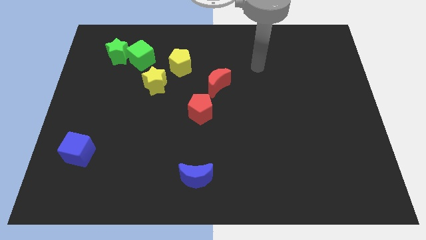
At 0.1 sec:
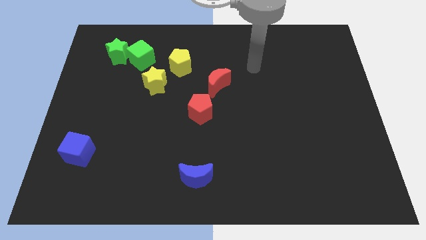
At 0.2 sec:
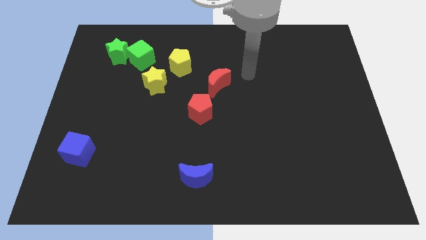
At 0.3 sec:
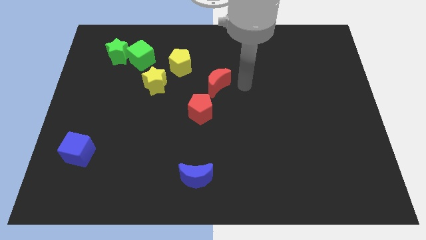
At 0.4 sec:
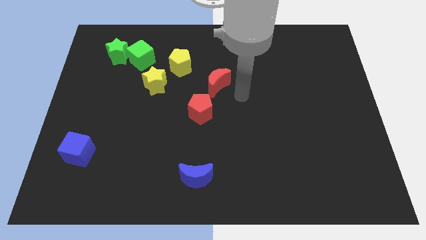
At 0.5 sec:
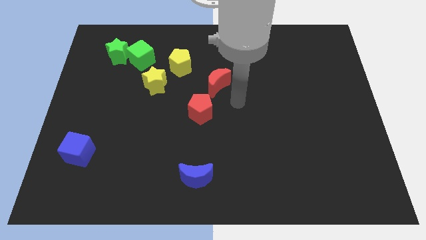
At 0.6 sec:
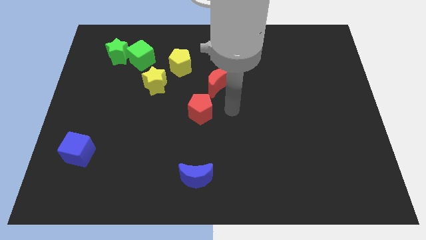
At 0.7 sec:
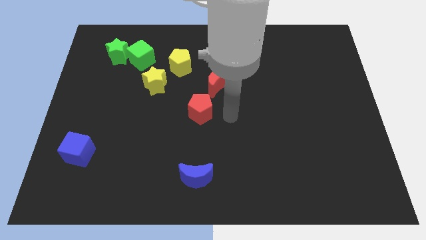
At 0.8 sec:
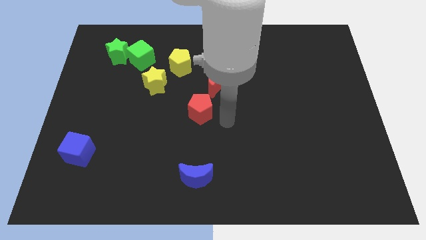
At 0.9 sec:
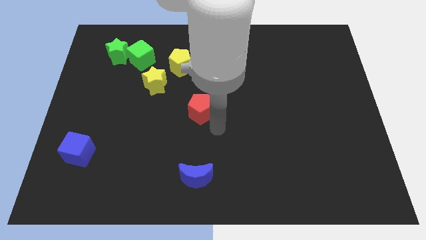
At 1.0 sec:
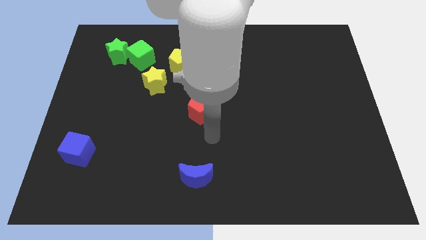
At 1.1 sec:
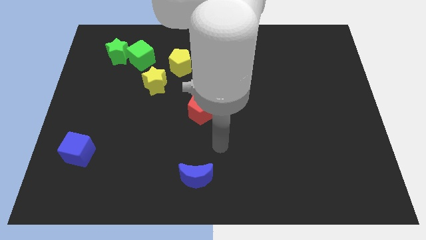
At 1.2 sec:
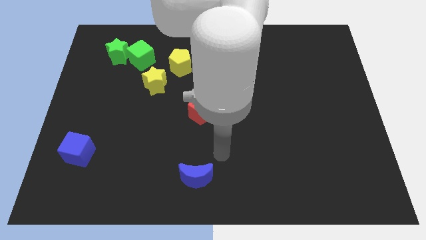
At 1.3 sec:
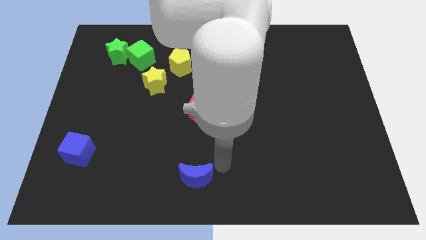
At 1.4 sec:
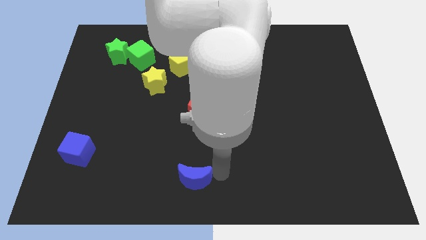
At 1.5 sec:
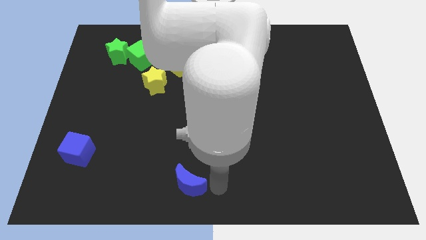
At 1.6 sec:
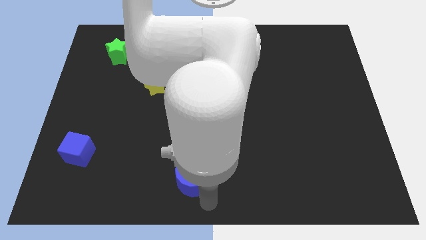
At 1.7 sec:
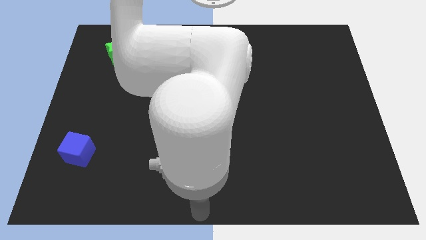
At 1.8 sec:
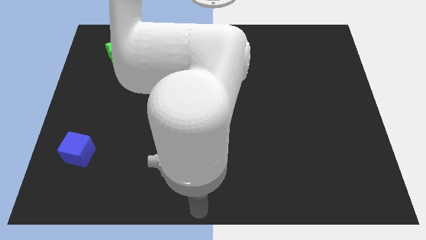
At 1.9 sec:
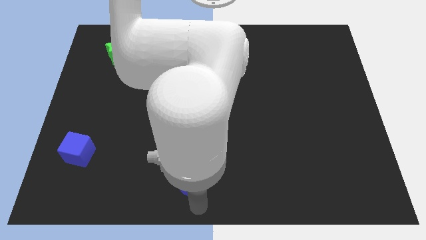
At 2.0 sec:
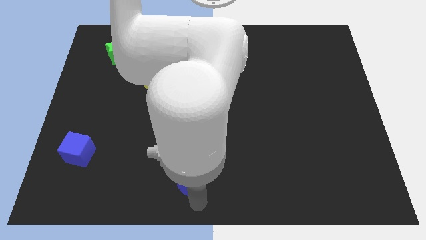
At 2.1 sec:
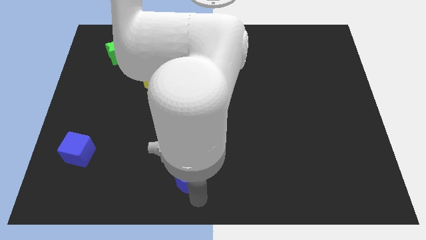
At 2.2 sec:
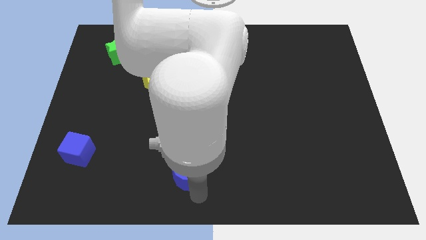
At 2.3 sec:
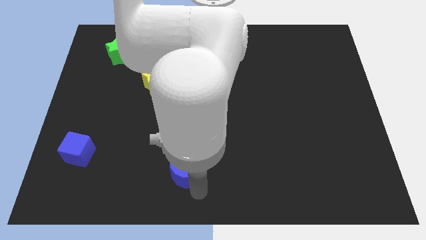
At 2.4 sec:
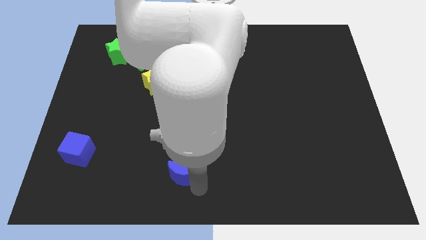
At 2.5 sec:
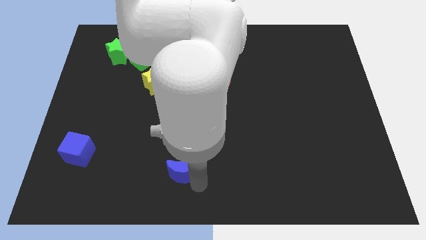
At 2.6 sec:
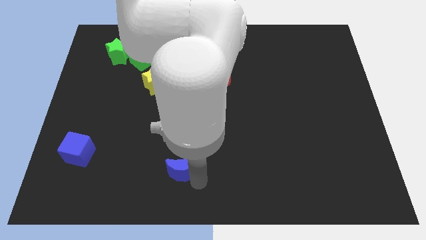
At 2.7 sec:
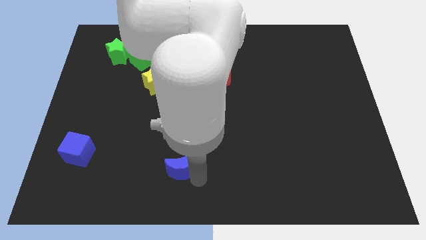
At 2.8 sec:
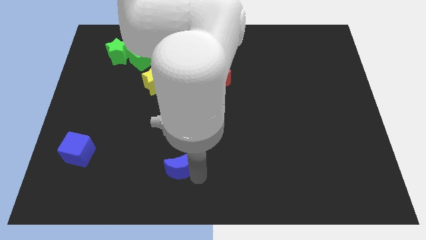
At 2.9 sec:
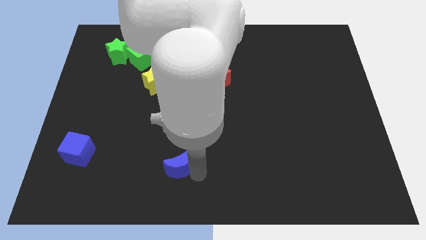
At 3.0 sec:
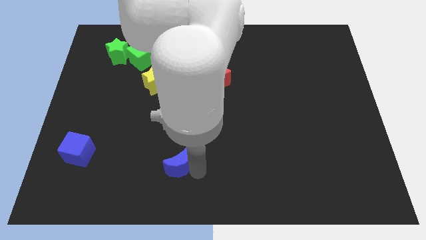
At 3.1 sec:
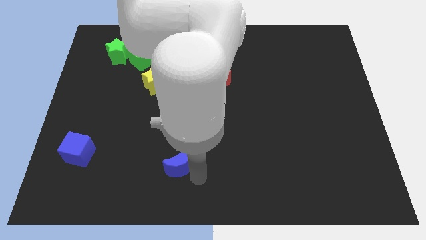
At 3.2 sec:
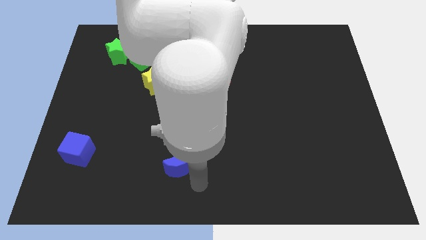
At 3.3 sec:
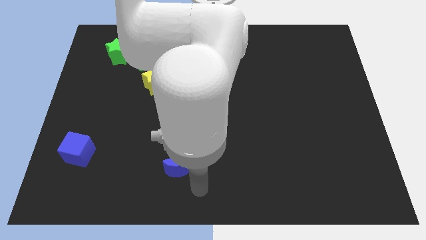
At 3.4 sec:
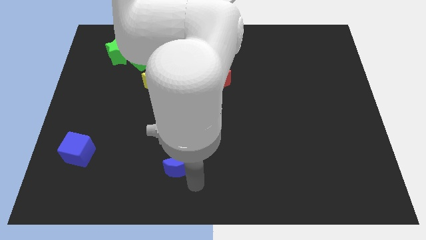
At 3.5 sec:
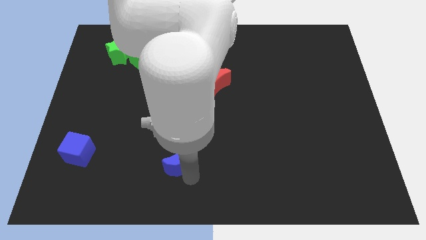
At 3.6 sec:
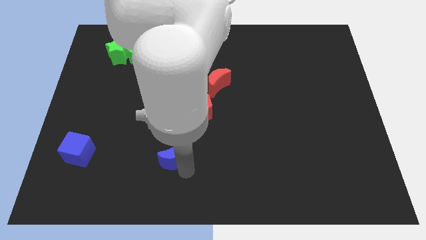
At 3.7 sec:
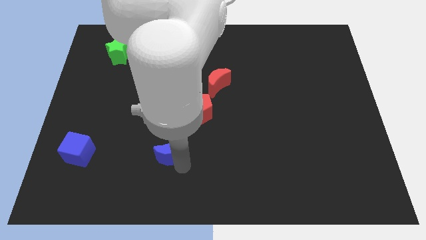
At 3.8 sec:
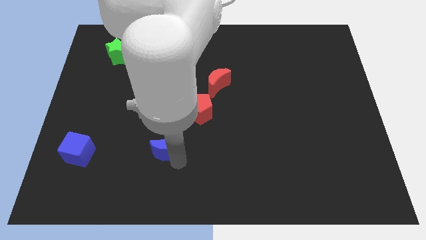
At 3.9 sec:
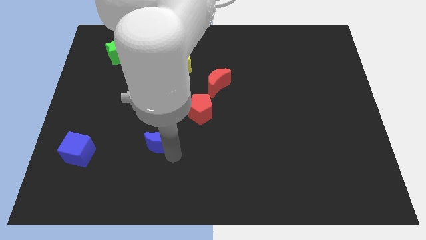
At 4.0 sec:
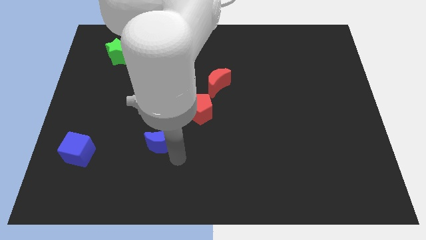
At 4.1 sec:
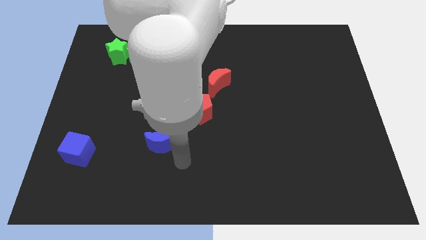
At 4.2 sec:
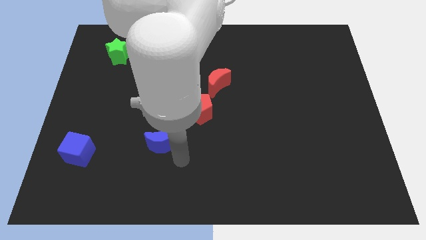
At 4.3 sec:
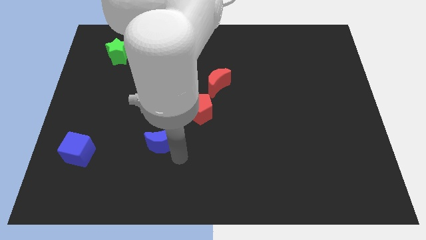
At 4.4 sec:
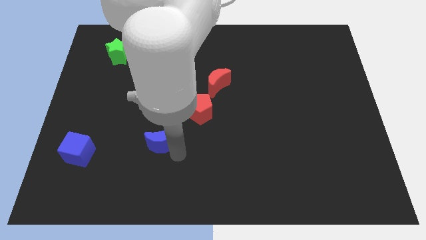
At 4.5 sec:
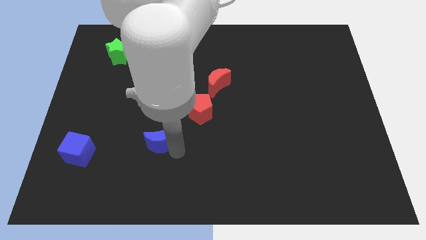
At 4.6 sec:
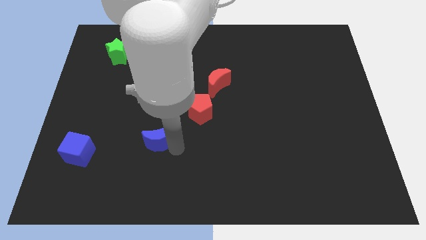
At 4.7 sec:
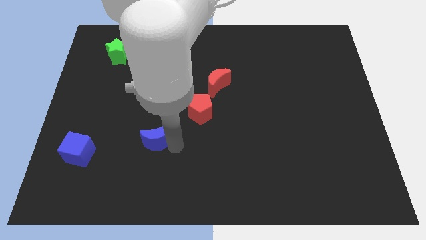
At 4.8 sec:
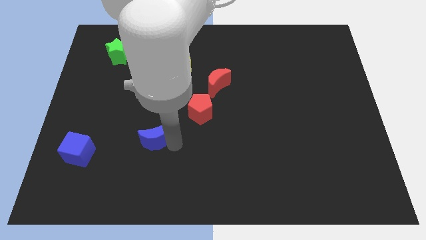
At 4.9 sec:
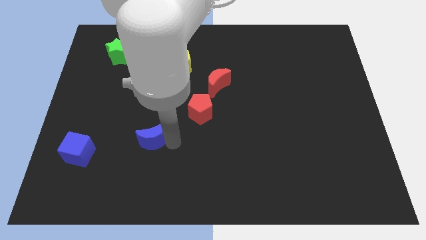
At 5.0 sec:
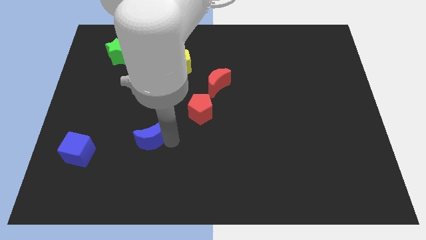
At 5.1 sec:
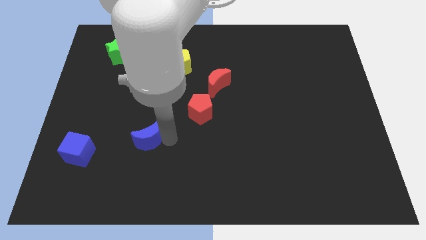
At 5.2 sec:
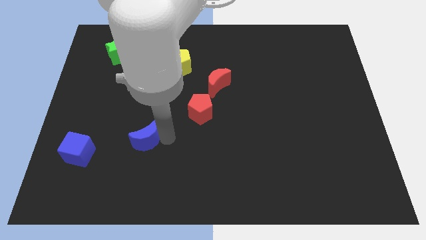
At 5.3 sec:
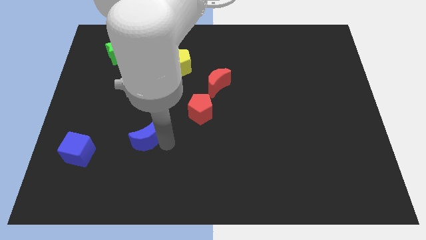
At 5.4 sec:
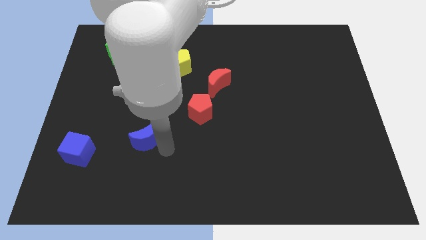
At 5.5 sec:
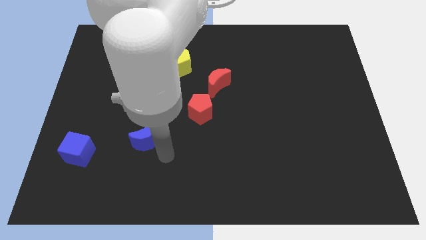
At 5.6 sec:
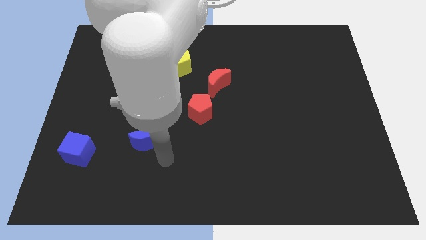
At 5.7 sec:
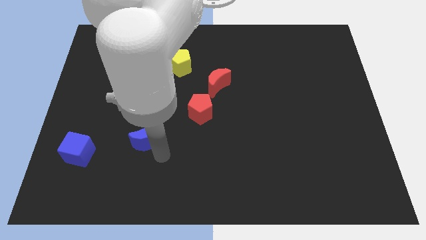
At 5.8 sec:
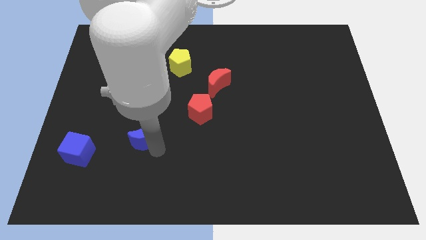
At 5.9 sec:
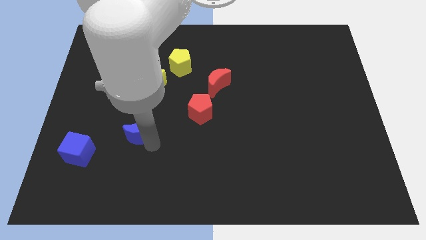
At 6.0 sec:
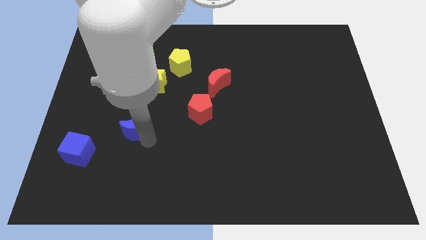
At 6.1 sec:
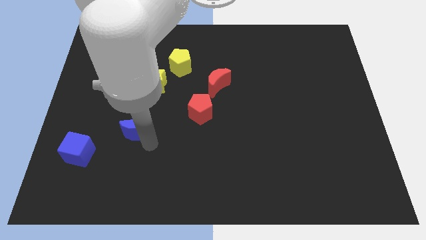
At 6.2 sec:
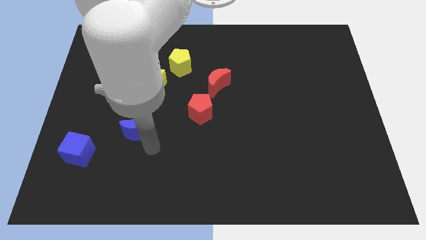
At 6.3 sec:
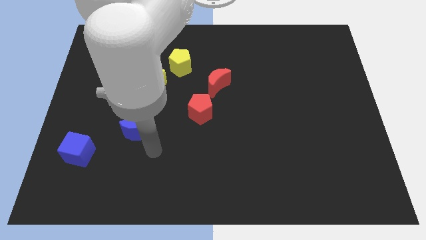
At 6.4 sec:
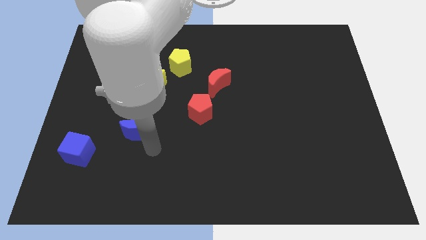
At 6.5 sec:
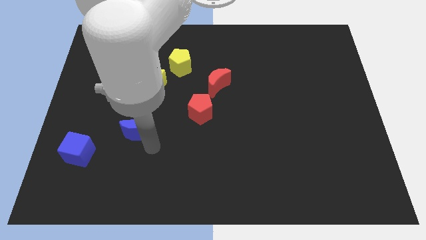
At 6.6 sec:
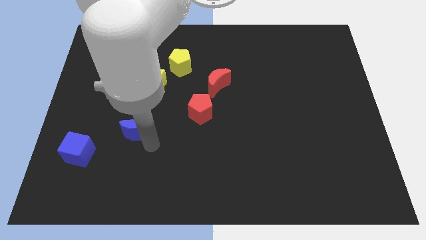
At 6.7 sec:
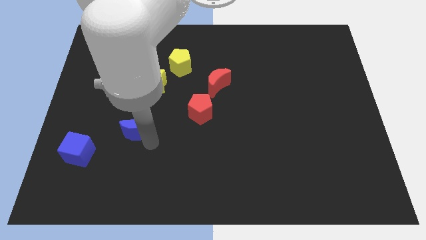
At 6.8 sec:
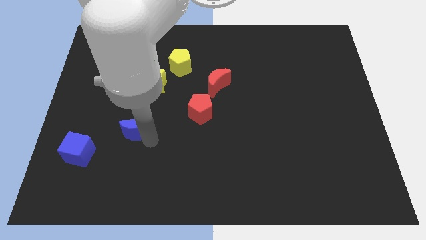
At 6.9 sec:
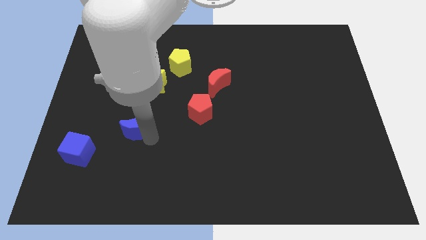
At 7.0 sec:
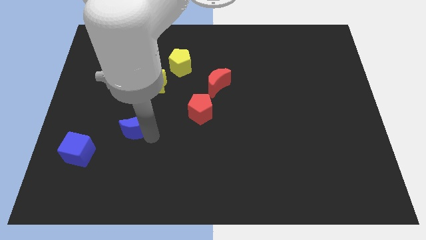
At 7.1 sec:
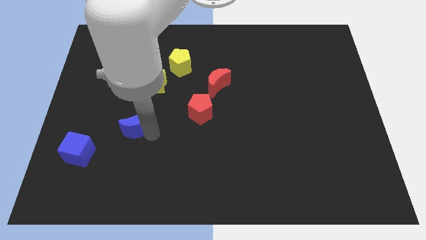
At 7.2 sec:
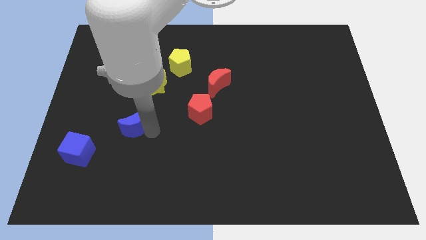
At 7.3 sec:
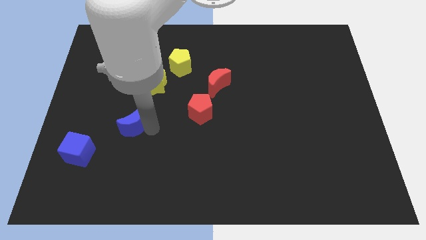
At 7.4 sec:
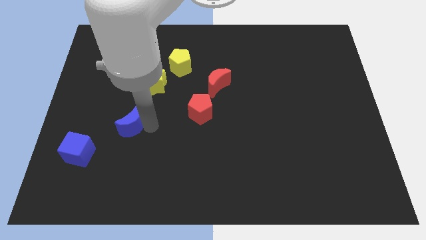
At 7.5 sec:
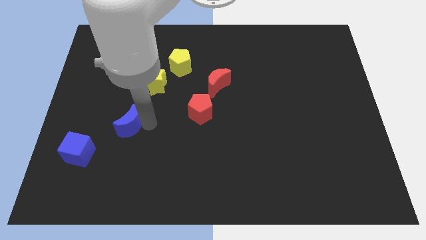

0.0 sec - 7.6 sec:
push the blue moon upwards and to the left

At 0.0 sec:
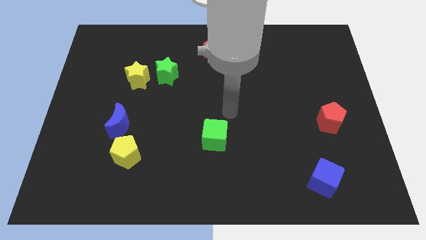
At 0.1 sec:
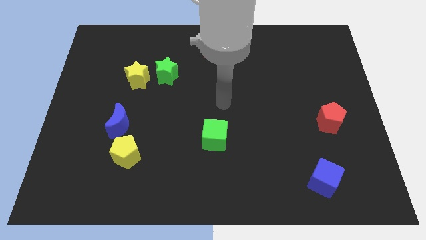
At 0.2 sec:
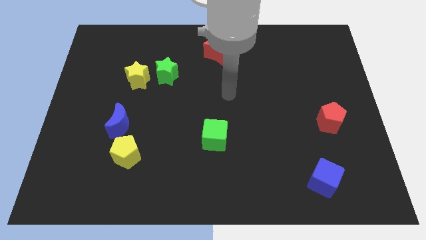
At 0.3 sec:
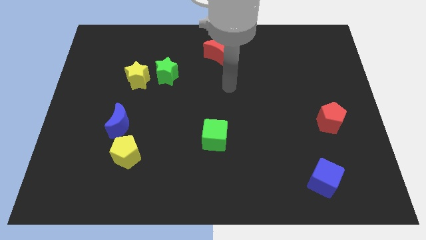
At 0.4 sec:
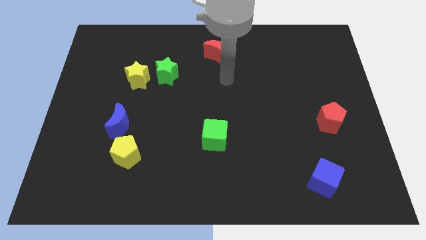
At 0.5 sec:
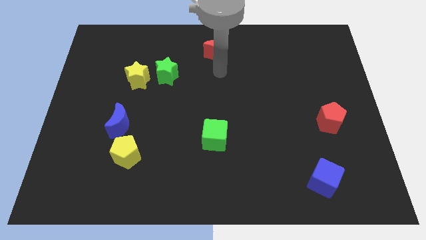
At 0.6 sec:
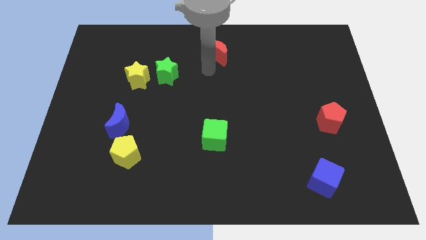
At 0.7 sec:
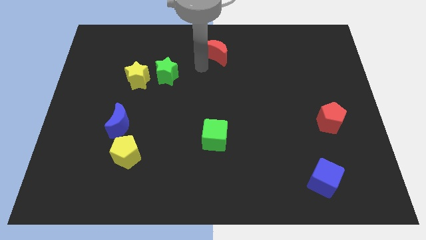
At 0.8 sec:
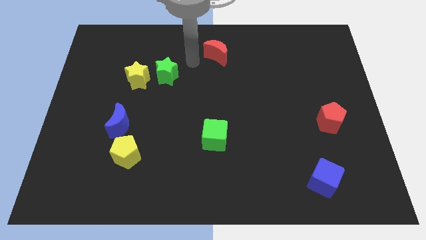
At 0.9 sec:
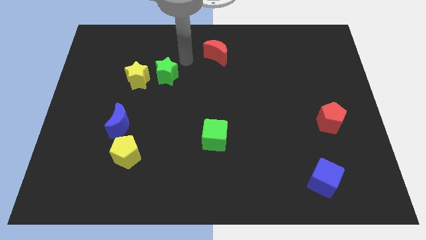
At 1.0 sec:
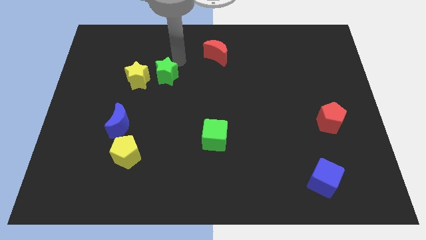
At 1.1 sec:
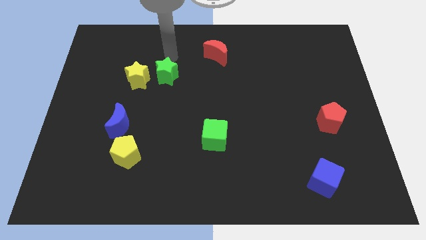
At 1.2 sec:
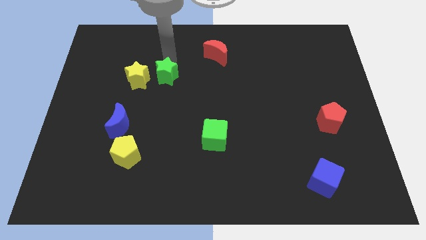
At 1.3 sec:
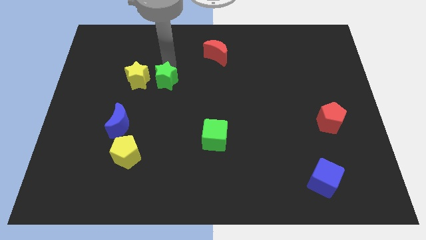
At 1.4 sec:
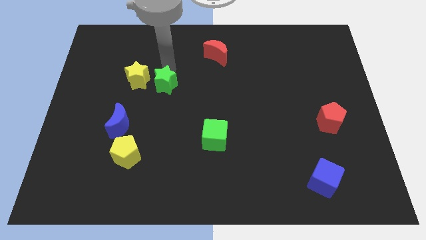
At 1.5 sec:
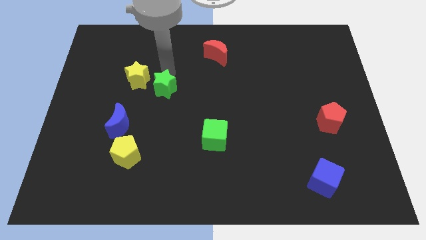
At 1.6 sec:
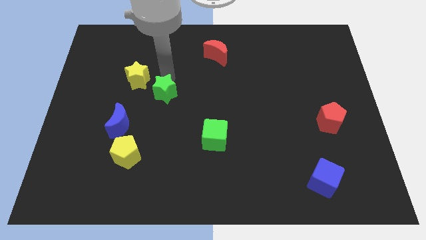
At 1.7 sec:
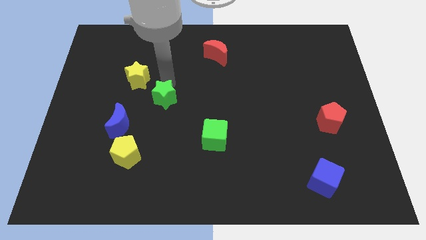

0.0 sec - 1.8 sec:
slide the green star downwards a bit
